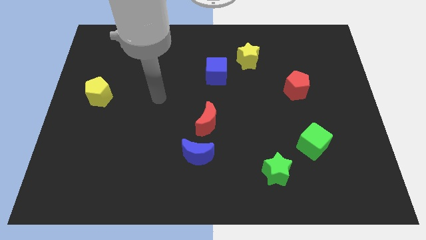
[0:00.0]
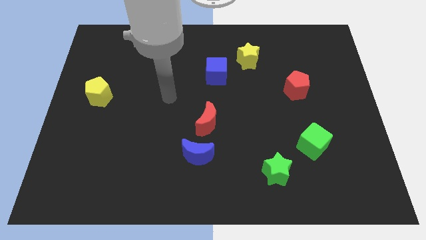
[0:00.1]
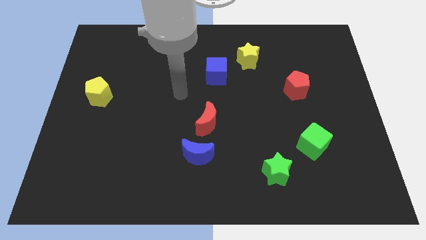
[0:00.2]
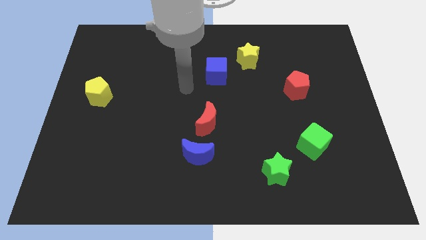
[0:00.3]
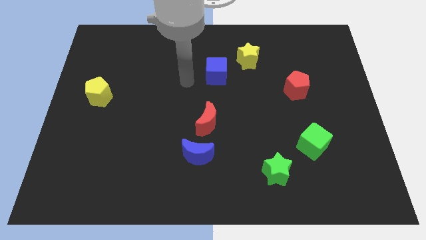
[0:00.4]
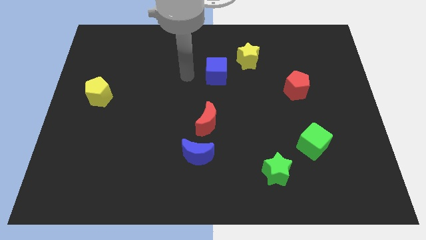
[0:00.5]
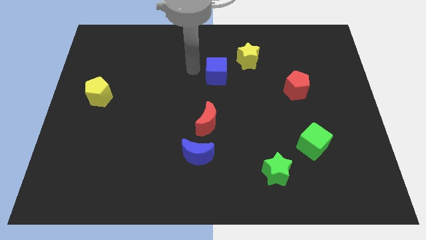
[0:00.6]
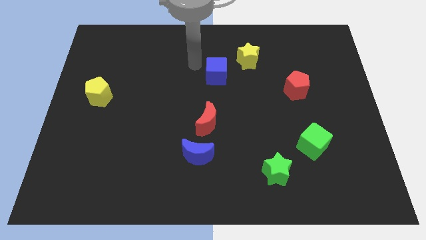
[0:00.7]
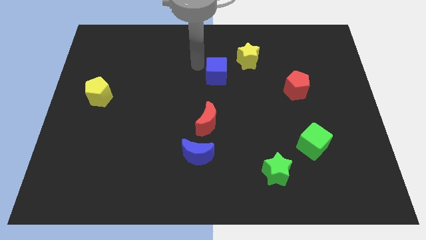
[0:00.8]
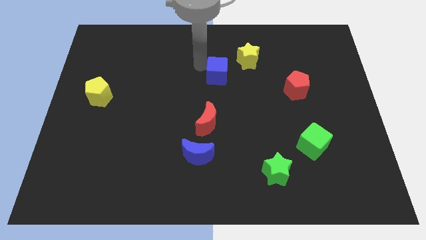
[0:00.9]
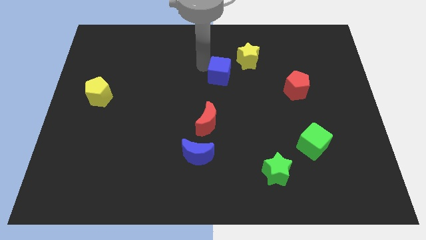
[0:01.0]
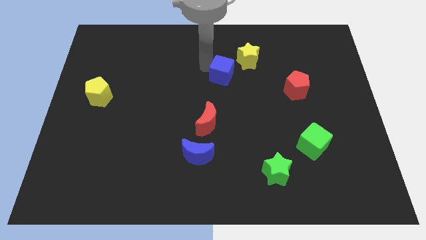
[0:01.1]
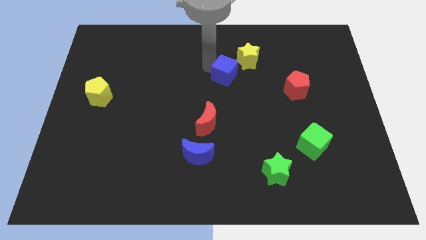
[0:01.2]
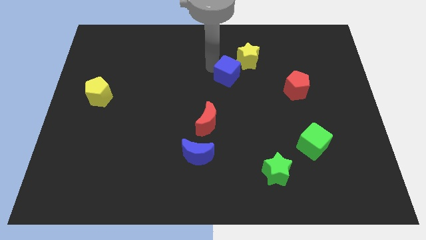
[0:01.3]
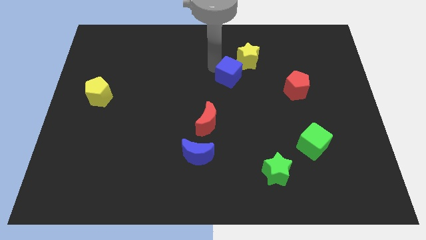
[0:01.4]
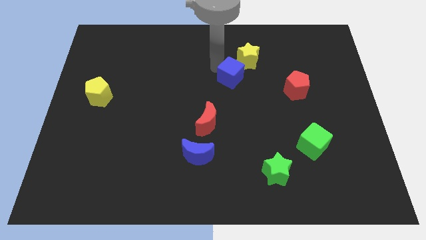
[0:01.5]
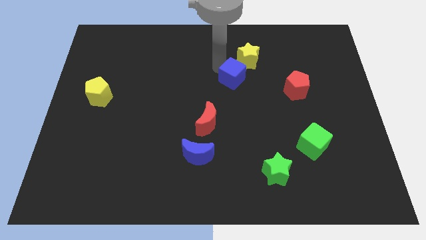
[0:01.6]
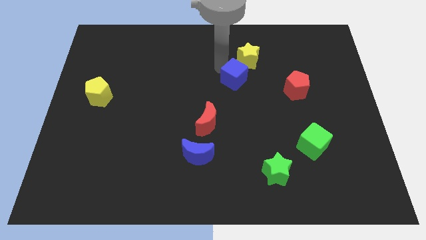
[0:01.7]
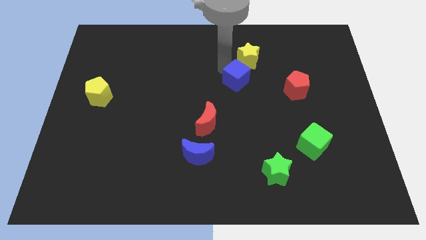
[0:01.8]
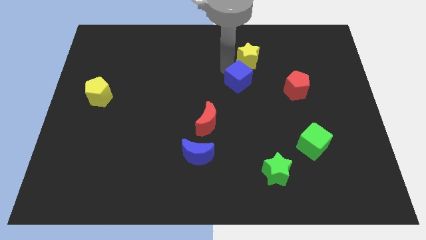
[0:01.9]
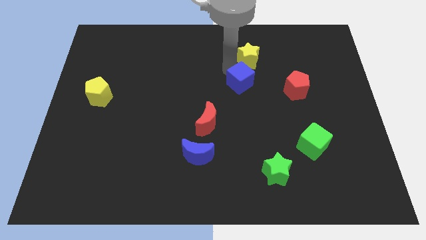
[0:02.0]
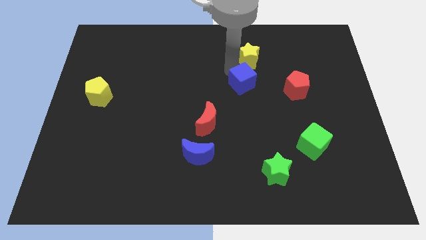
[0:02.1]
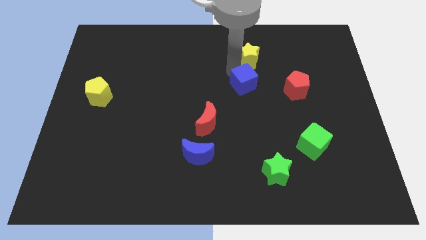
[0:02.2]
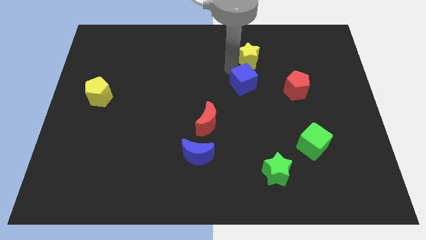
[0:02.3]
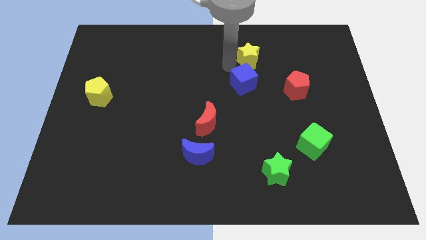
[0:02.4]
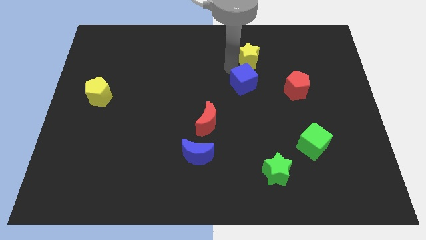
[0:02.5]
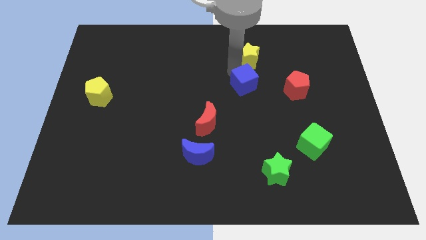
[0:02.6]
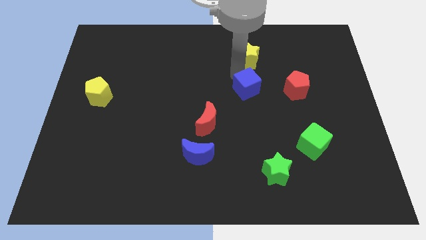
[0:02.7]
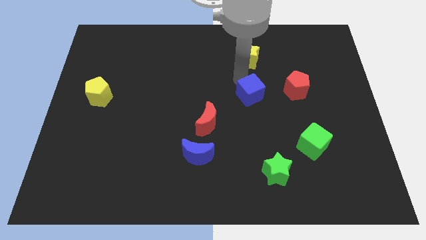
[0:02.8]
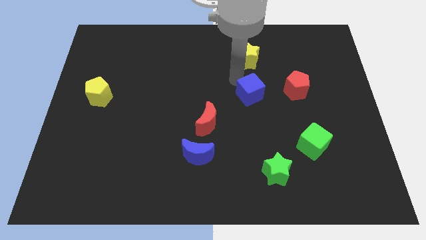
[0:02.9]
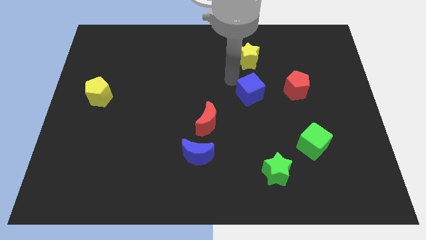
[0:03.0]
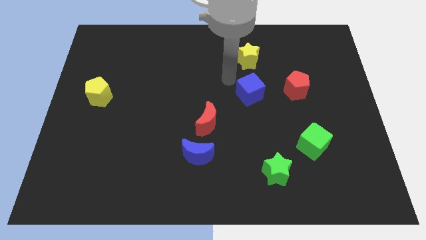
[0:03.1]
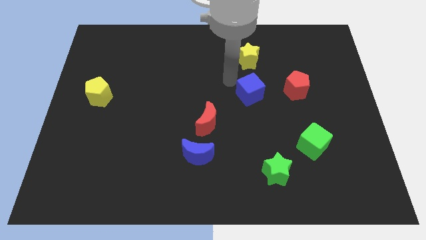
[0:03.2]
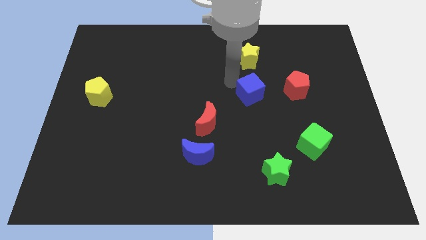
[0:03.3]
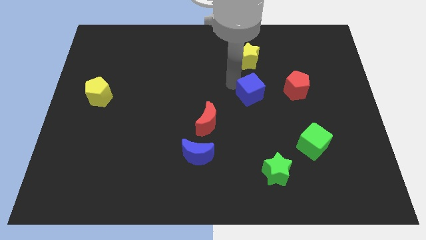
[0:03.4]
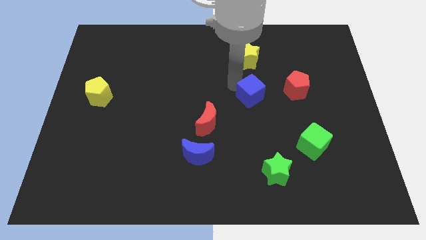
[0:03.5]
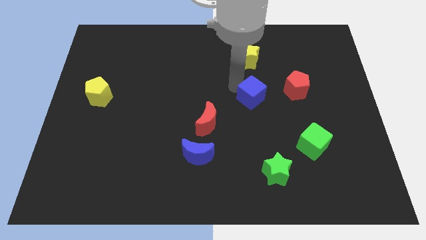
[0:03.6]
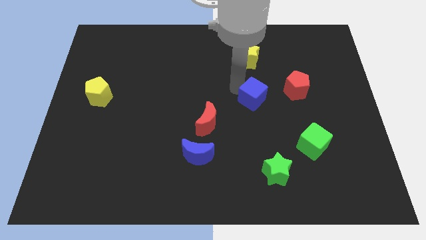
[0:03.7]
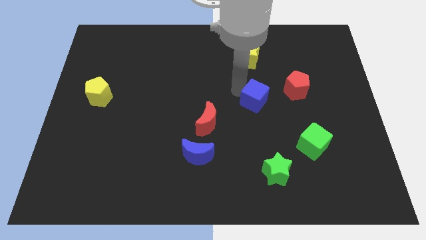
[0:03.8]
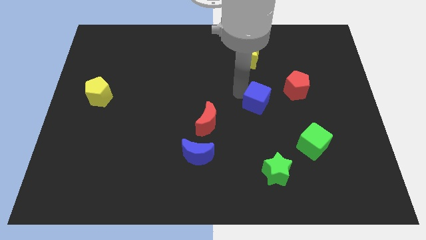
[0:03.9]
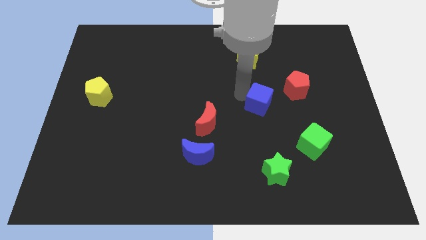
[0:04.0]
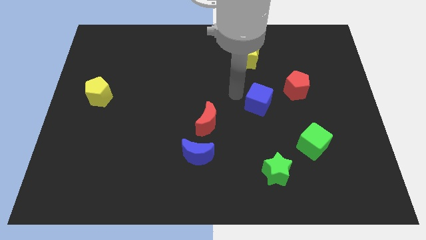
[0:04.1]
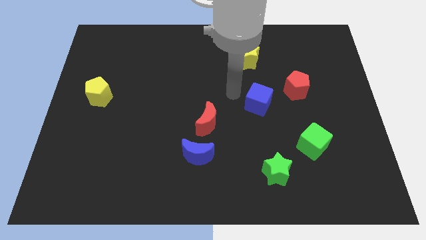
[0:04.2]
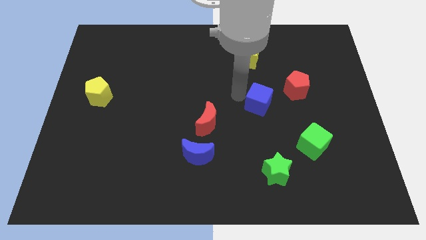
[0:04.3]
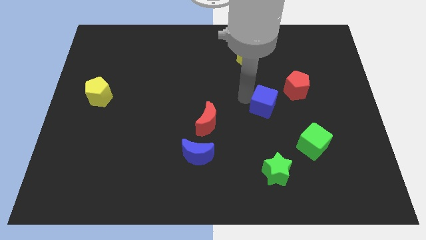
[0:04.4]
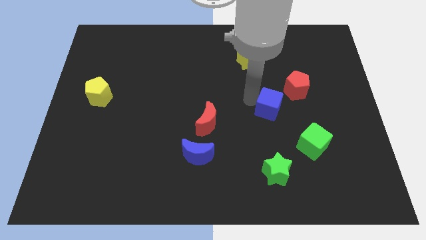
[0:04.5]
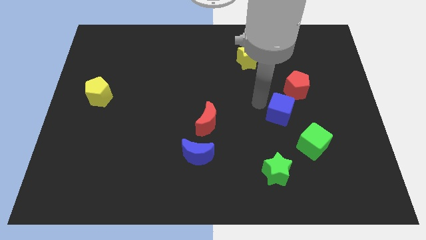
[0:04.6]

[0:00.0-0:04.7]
put the blue cube to the bottom of the red pentagon

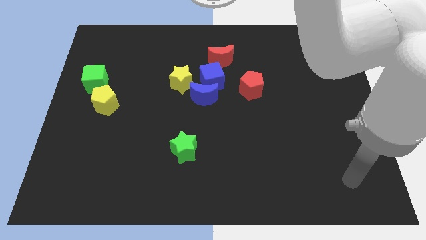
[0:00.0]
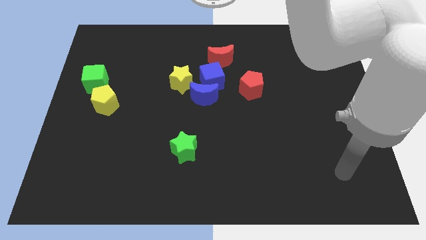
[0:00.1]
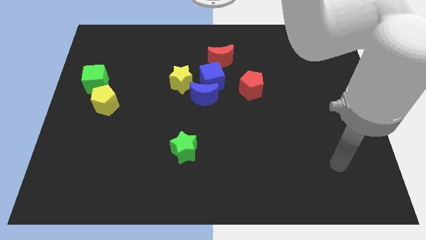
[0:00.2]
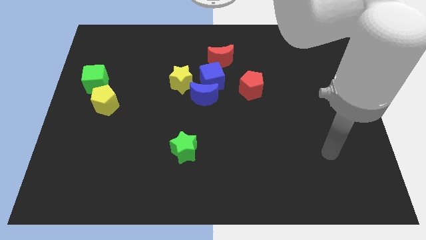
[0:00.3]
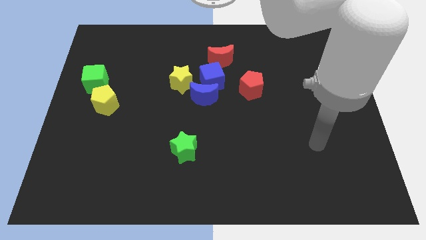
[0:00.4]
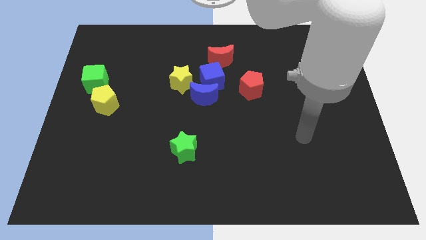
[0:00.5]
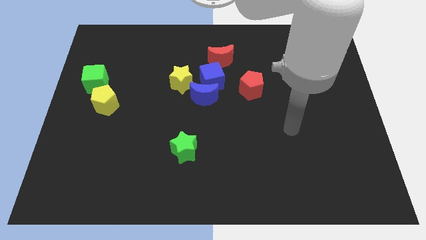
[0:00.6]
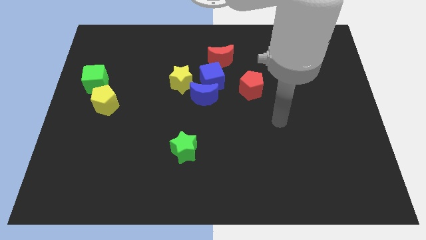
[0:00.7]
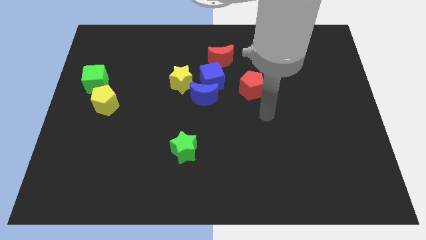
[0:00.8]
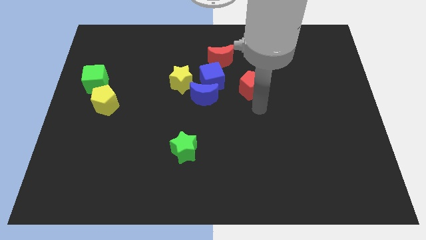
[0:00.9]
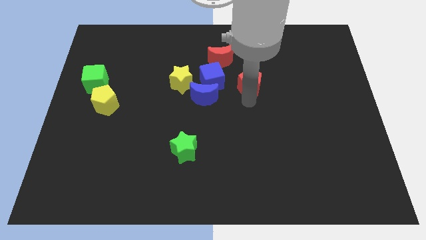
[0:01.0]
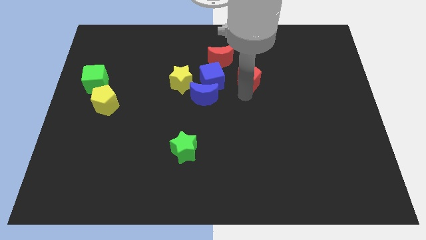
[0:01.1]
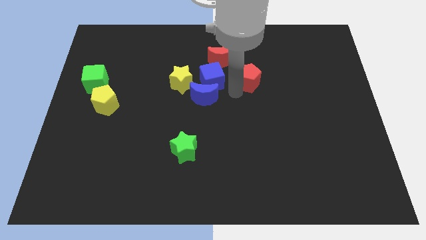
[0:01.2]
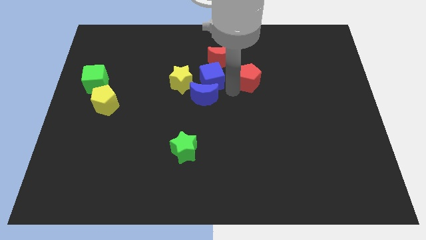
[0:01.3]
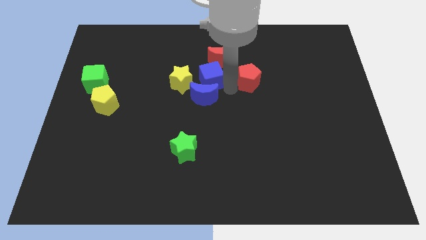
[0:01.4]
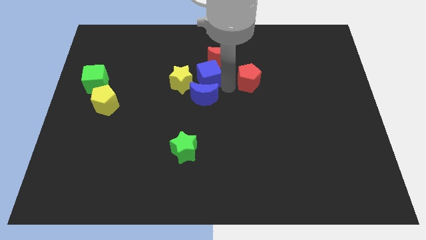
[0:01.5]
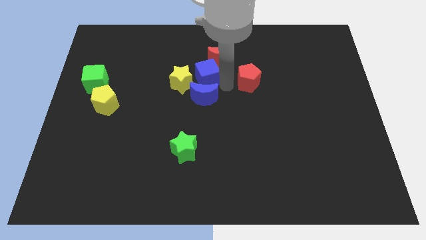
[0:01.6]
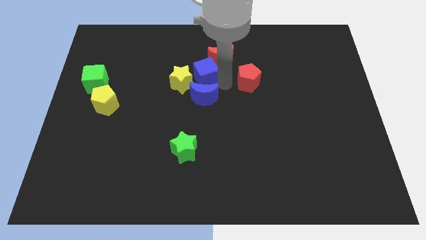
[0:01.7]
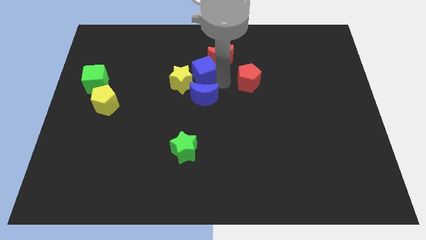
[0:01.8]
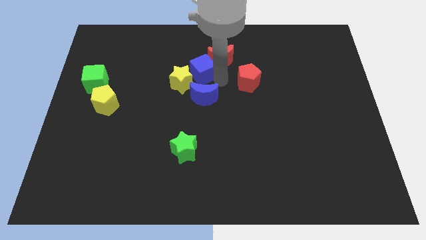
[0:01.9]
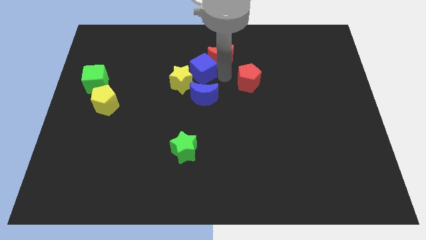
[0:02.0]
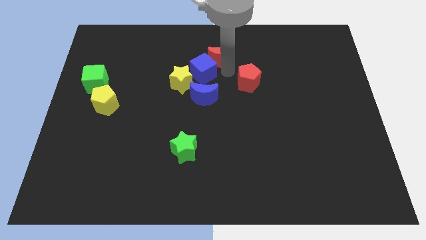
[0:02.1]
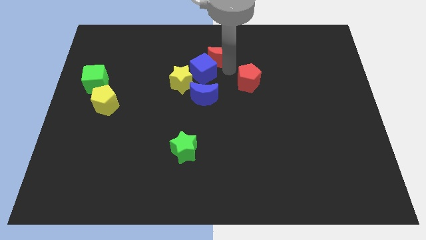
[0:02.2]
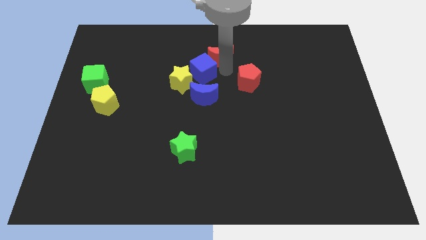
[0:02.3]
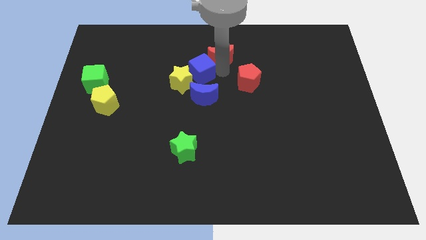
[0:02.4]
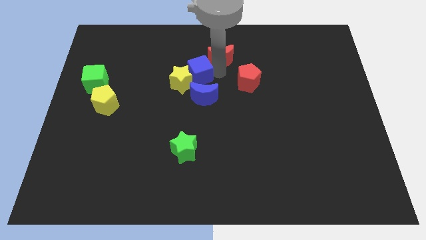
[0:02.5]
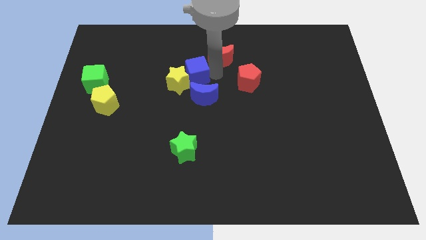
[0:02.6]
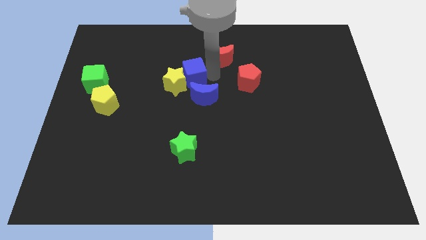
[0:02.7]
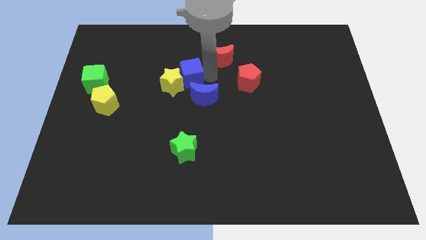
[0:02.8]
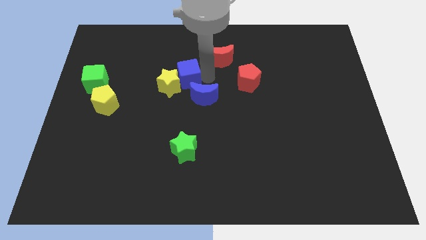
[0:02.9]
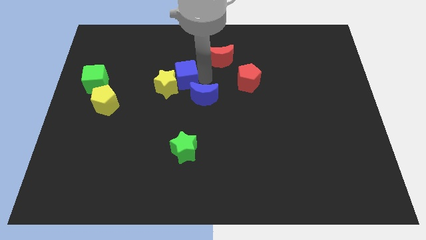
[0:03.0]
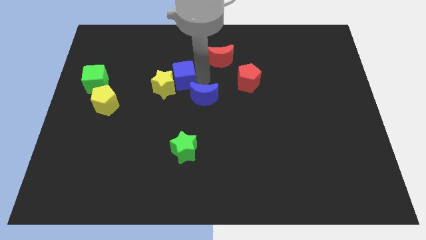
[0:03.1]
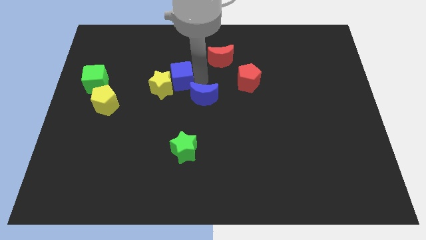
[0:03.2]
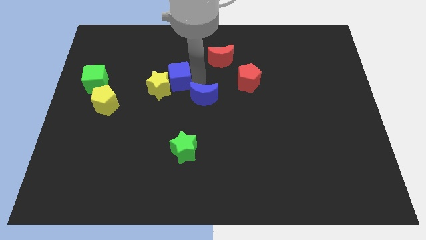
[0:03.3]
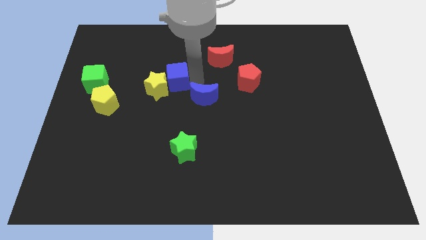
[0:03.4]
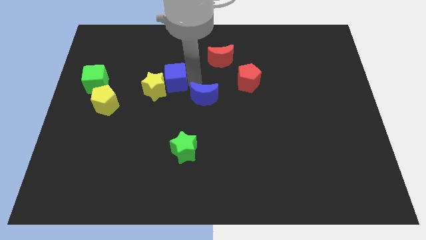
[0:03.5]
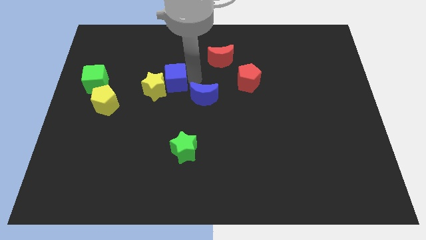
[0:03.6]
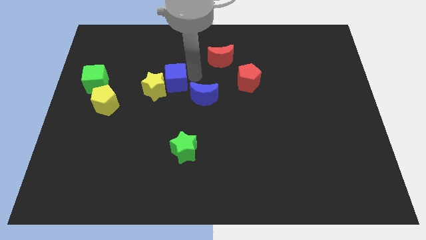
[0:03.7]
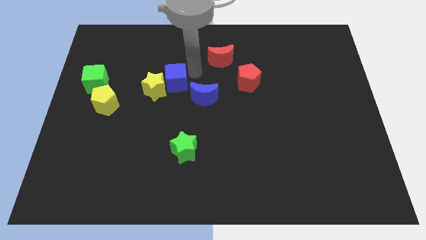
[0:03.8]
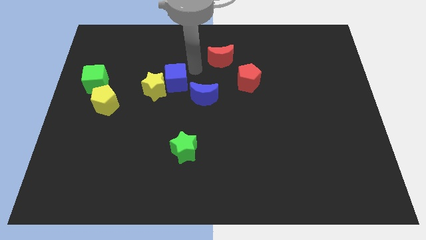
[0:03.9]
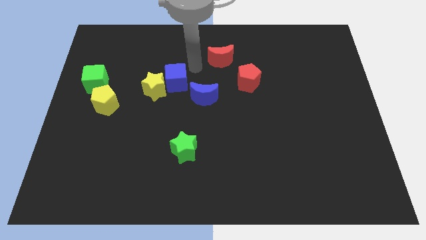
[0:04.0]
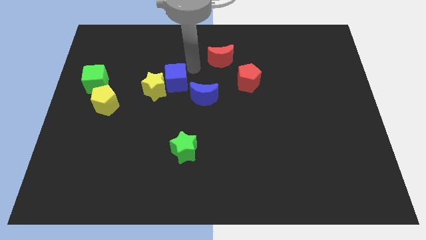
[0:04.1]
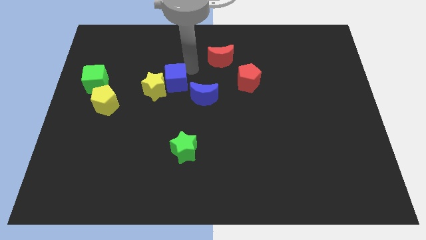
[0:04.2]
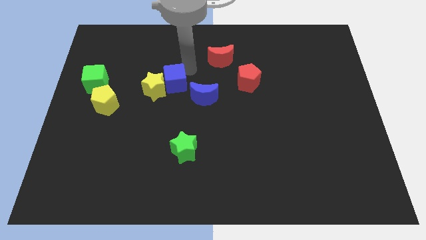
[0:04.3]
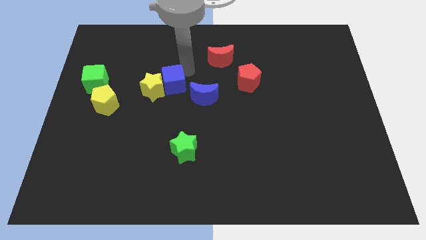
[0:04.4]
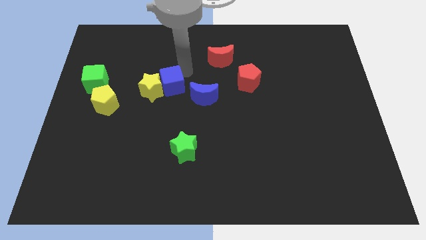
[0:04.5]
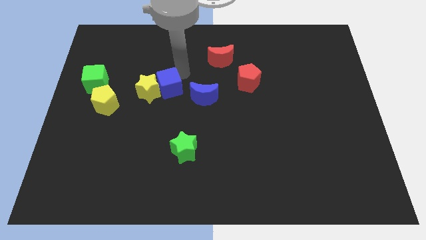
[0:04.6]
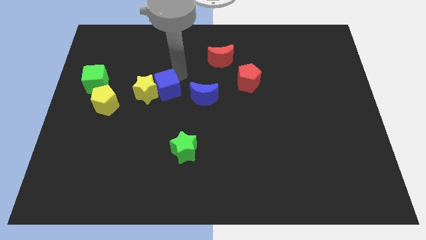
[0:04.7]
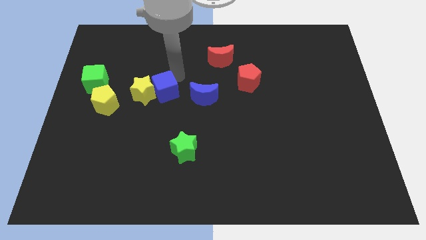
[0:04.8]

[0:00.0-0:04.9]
push the blue cube right of the yellow pentagon
